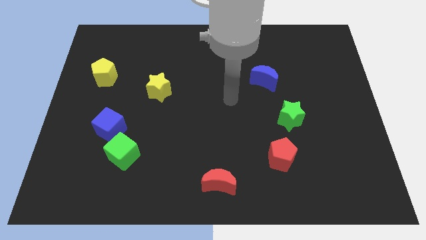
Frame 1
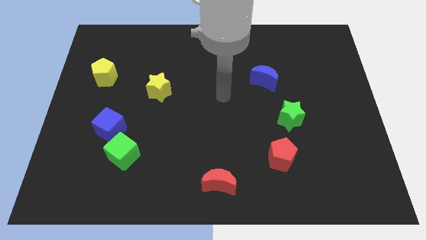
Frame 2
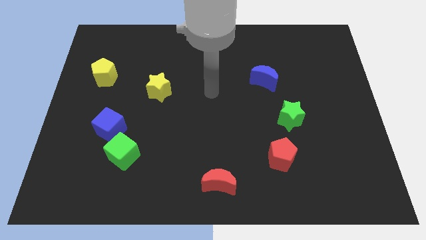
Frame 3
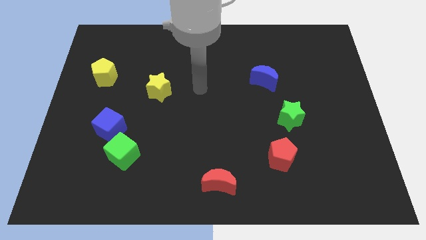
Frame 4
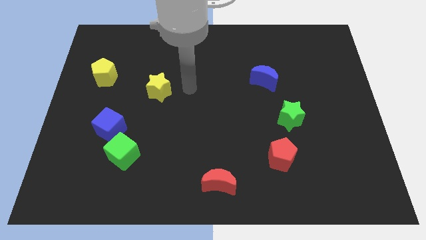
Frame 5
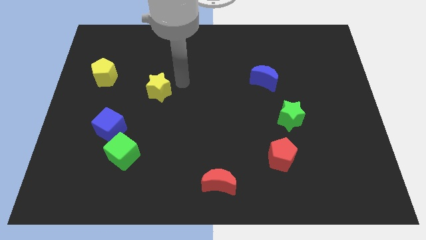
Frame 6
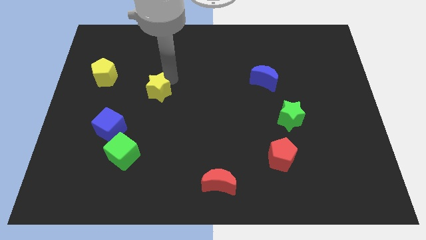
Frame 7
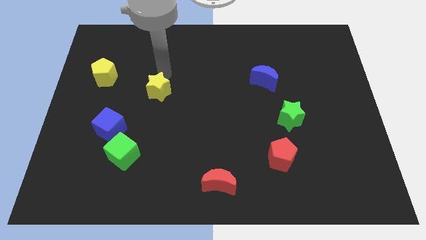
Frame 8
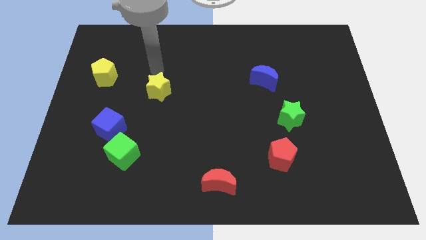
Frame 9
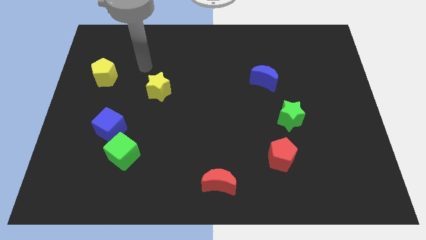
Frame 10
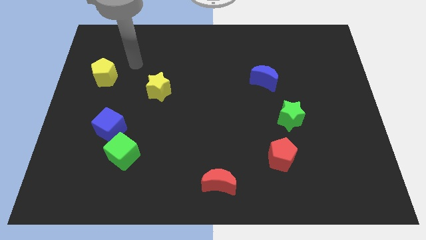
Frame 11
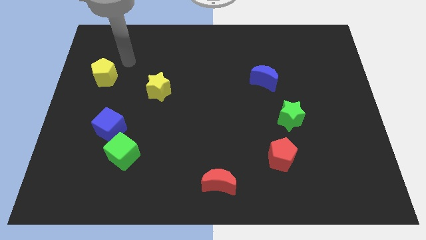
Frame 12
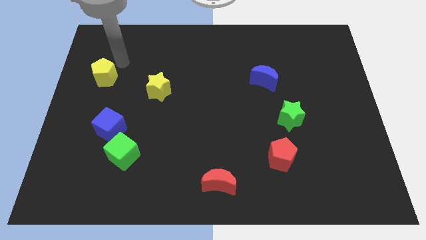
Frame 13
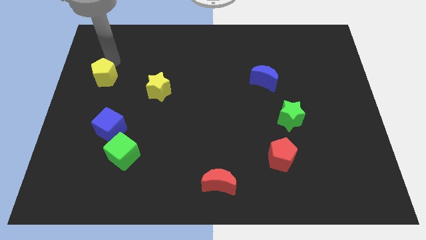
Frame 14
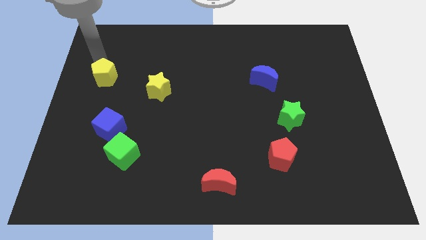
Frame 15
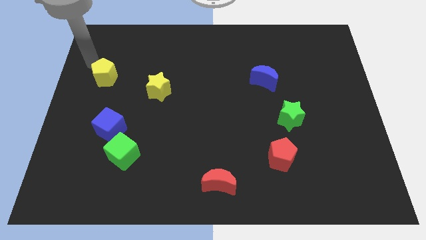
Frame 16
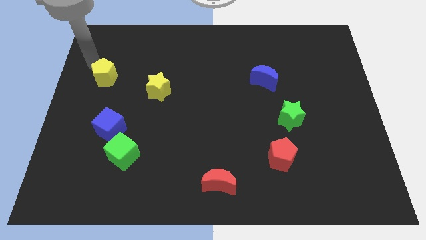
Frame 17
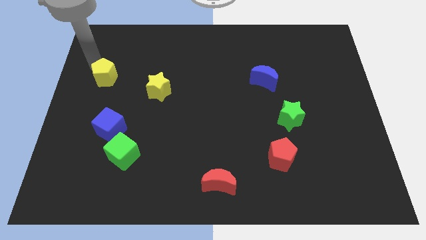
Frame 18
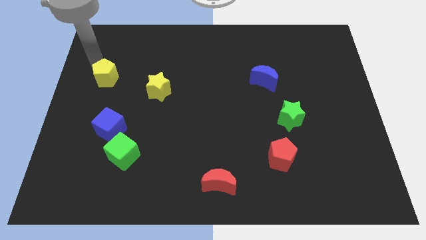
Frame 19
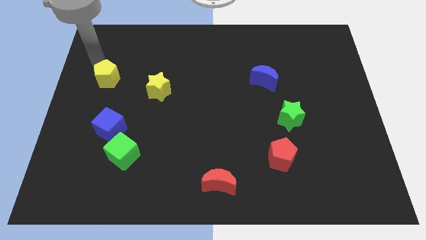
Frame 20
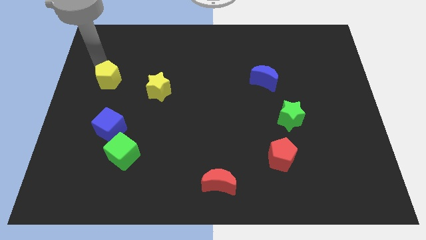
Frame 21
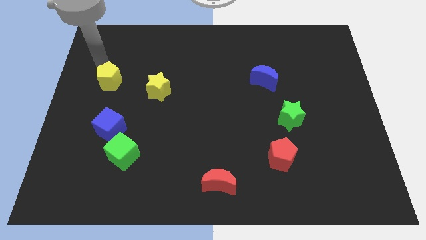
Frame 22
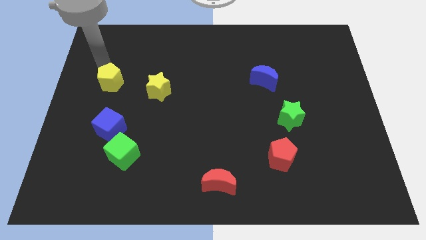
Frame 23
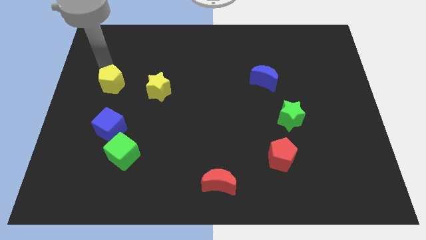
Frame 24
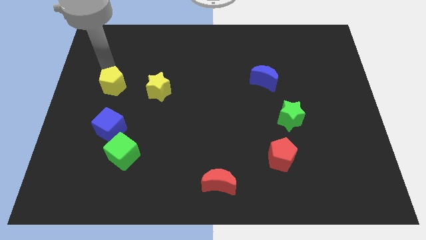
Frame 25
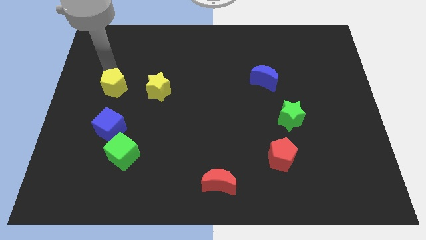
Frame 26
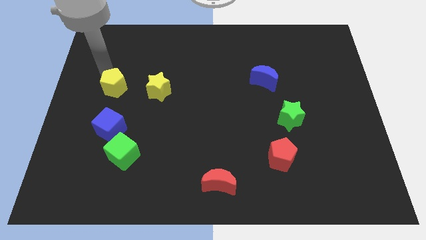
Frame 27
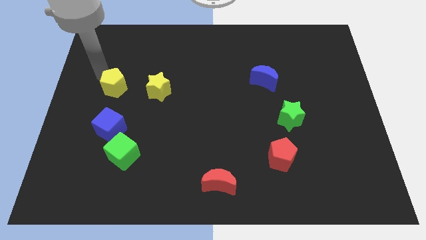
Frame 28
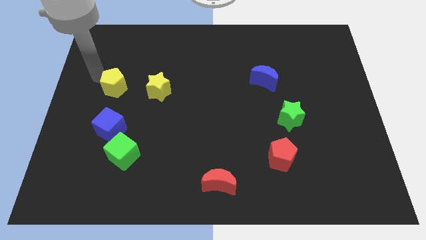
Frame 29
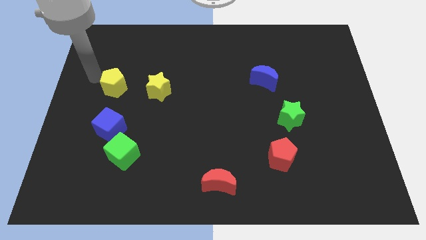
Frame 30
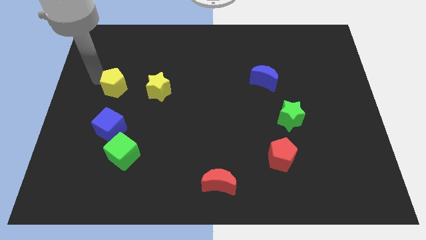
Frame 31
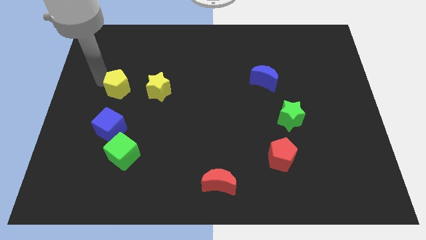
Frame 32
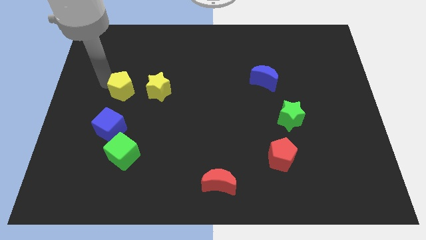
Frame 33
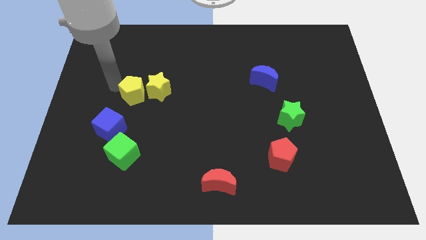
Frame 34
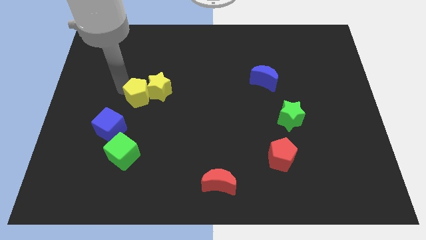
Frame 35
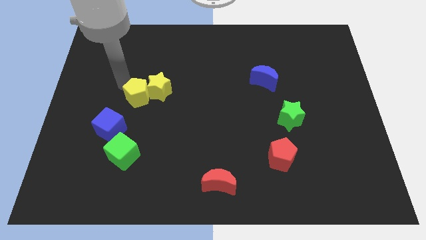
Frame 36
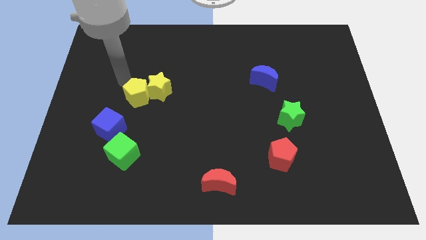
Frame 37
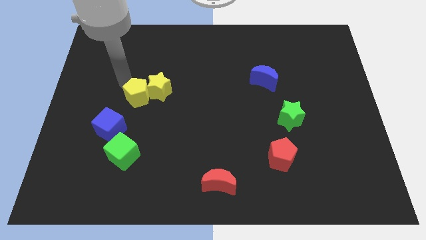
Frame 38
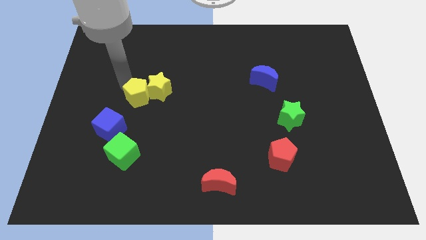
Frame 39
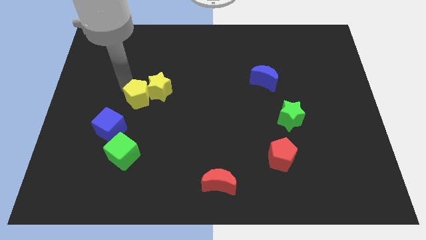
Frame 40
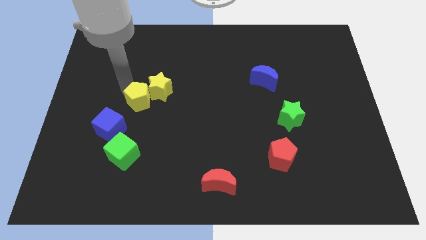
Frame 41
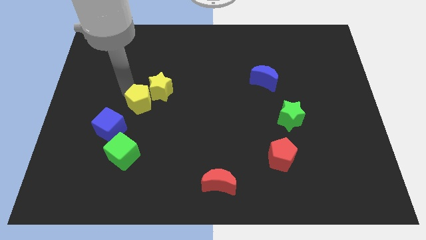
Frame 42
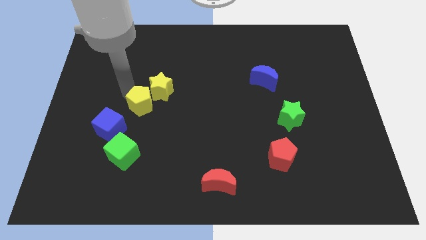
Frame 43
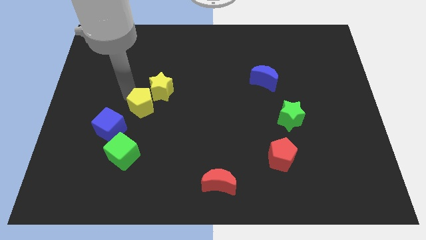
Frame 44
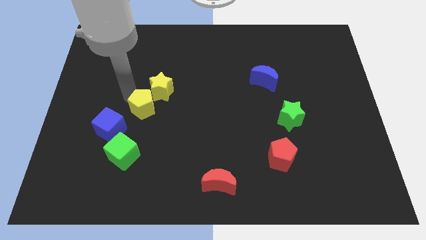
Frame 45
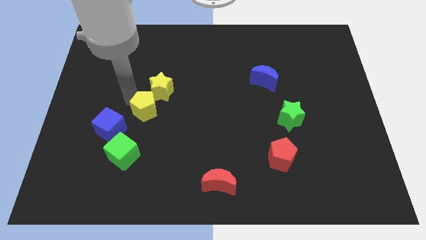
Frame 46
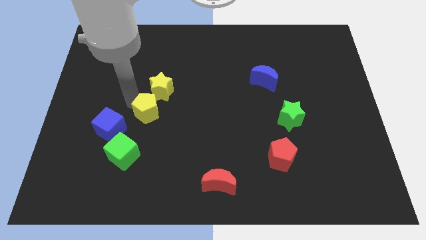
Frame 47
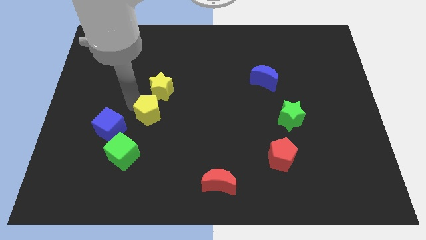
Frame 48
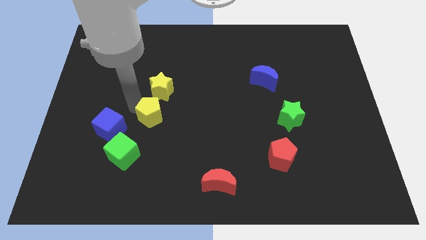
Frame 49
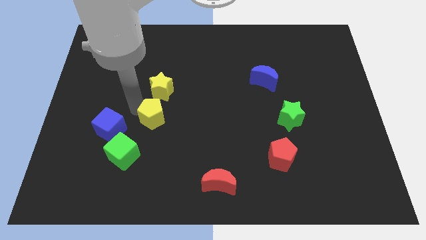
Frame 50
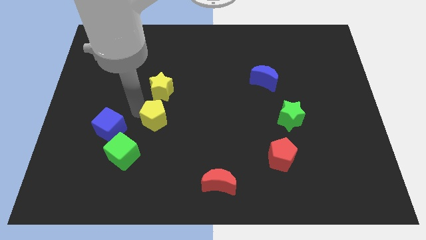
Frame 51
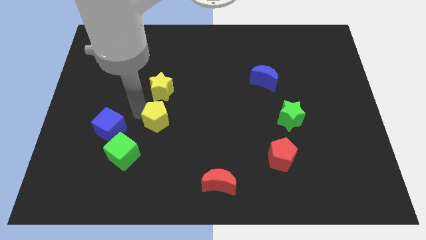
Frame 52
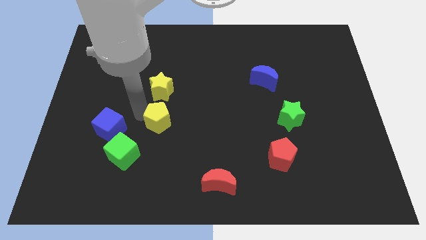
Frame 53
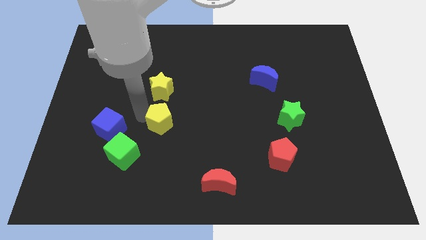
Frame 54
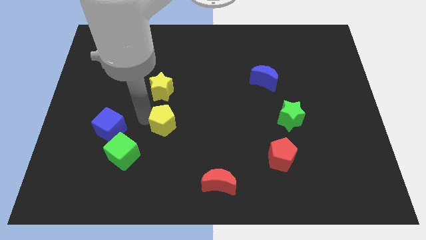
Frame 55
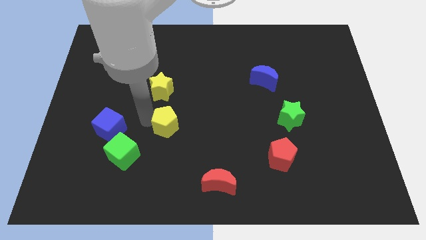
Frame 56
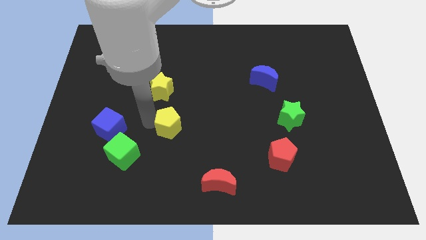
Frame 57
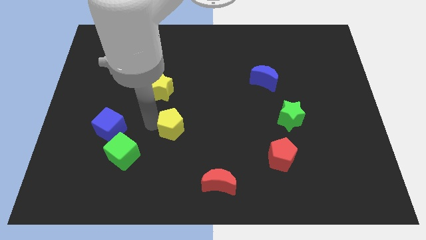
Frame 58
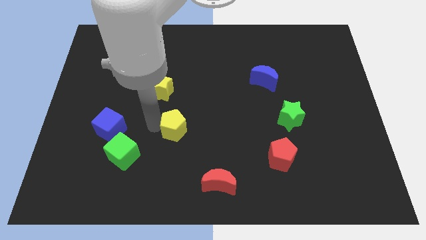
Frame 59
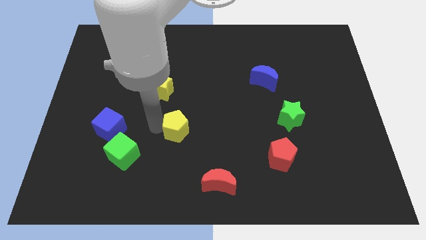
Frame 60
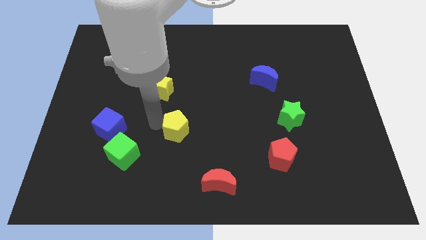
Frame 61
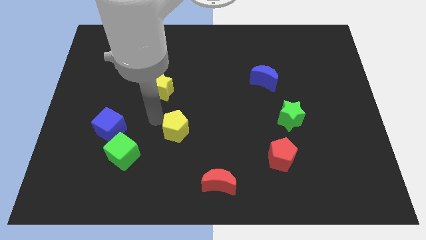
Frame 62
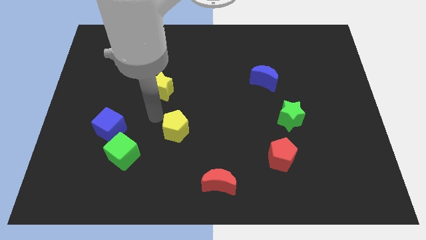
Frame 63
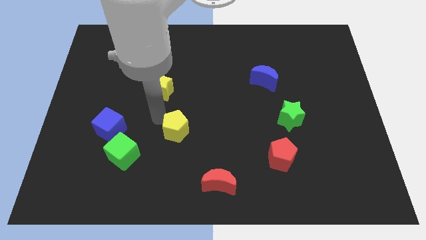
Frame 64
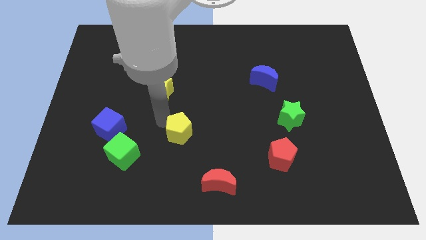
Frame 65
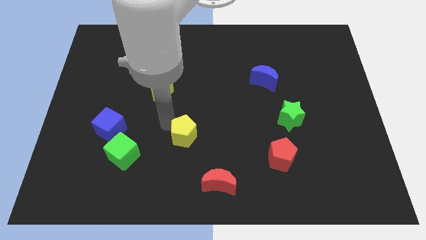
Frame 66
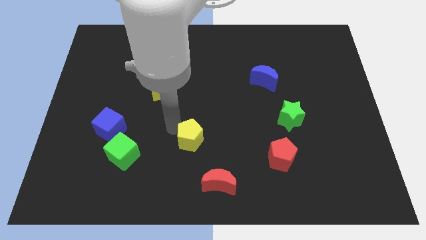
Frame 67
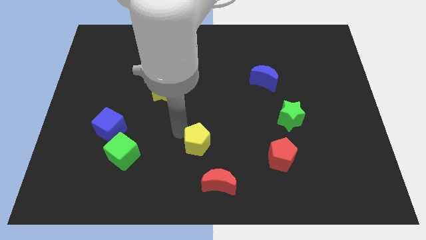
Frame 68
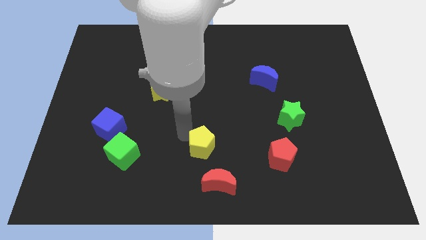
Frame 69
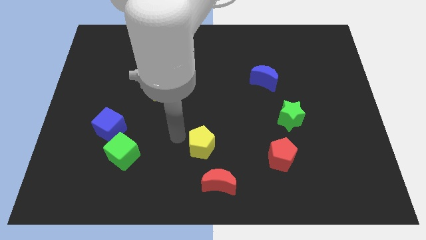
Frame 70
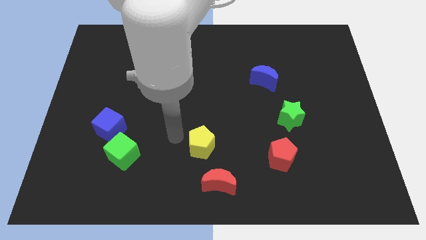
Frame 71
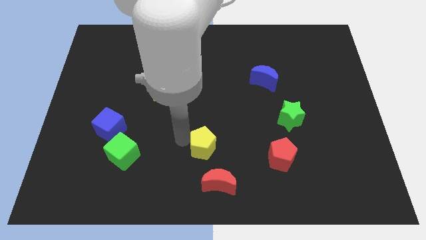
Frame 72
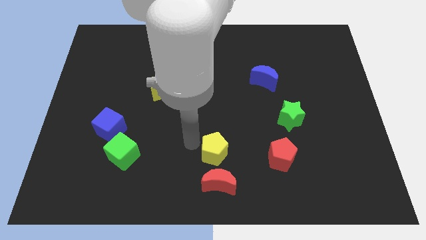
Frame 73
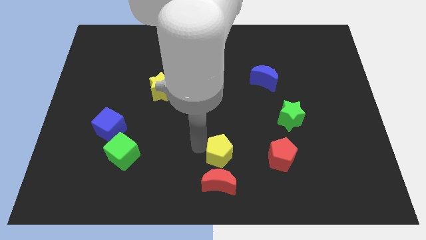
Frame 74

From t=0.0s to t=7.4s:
put the yellow pentagon to the top right side of the red moon
